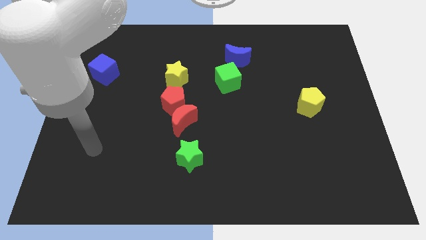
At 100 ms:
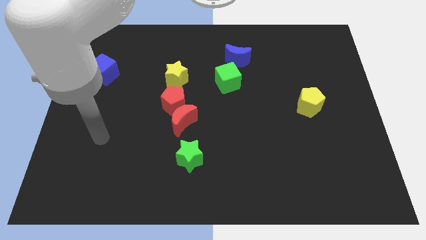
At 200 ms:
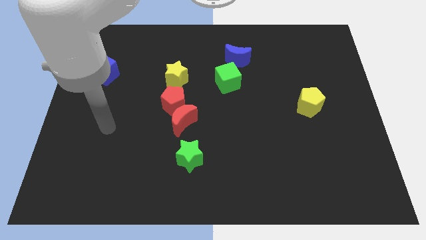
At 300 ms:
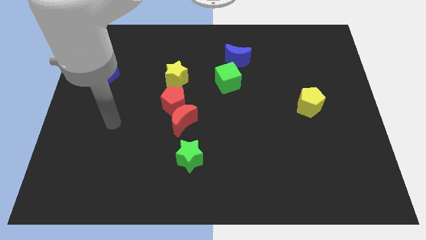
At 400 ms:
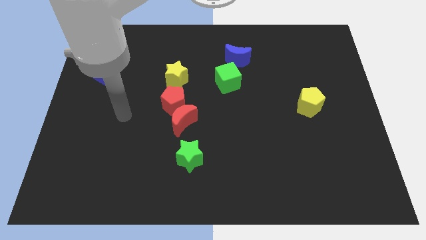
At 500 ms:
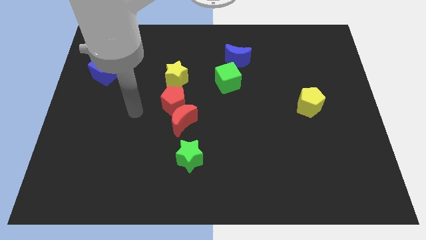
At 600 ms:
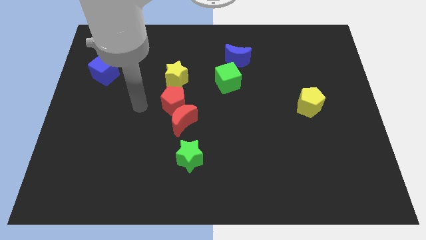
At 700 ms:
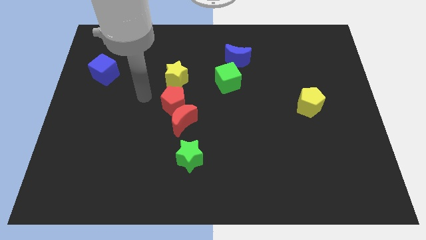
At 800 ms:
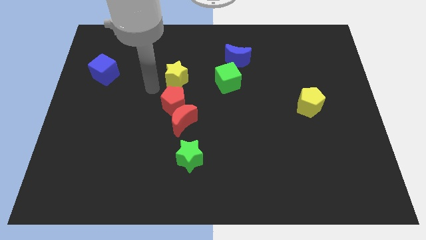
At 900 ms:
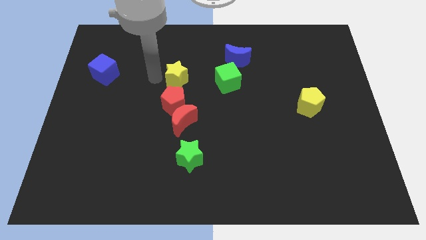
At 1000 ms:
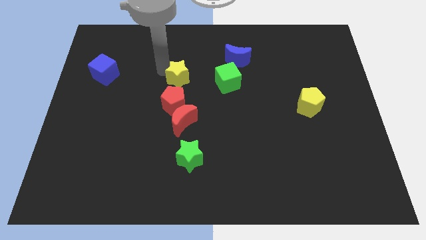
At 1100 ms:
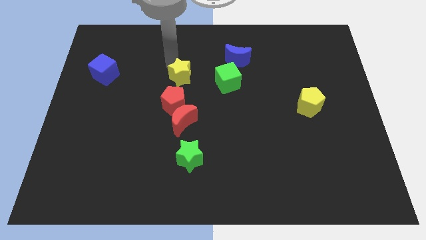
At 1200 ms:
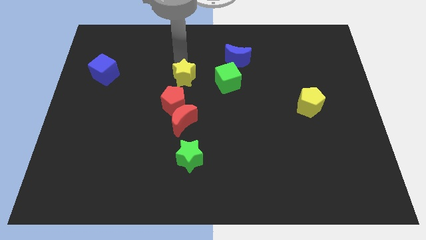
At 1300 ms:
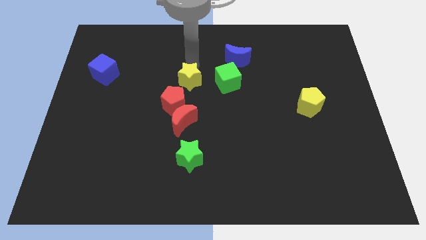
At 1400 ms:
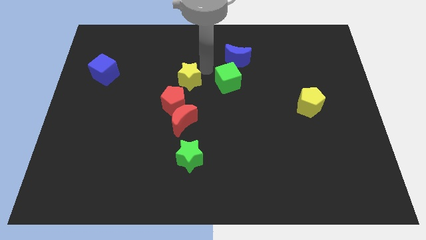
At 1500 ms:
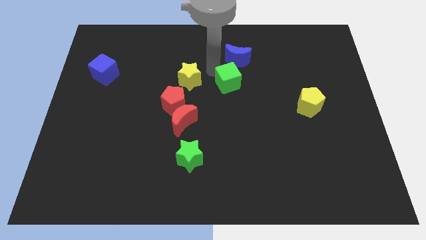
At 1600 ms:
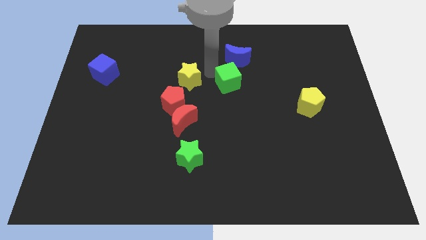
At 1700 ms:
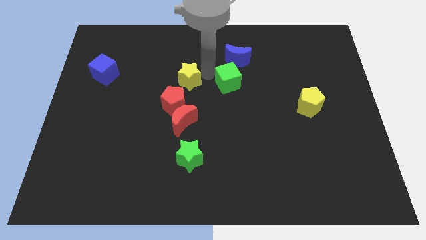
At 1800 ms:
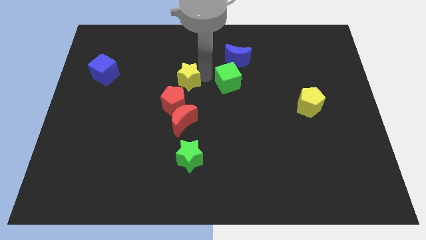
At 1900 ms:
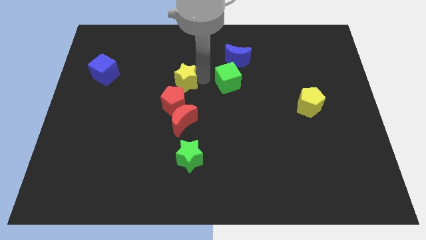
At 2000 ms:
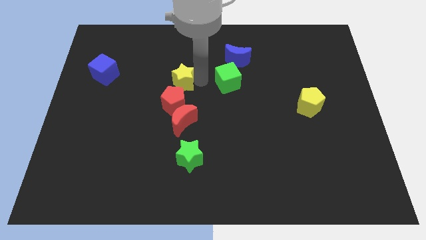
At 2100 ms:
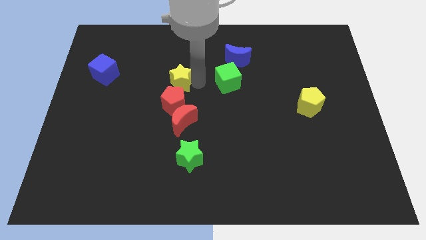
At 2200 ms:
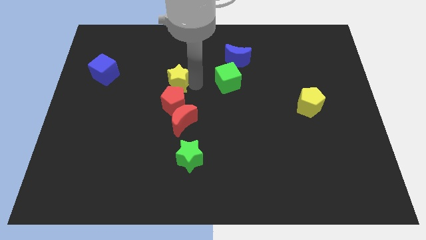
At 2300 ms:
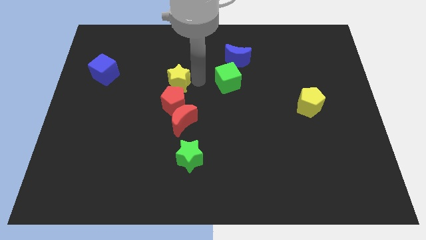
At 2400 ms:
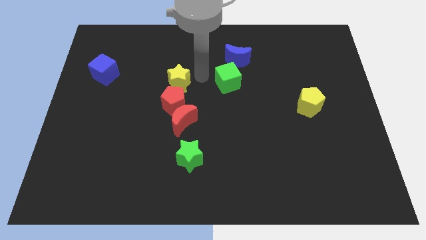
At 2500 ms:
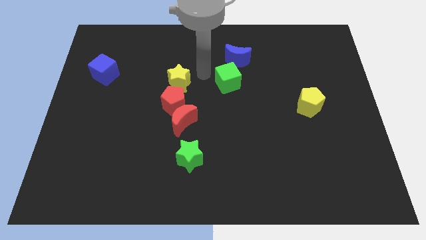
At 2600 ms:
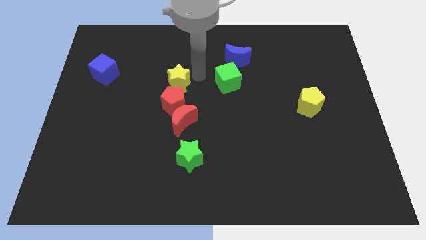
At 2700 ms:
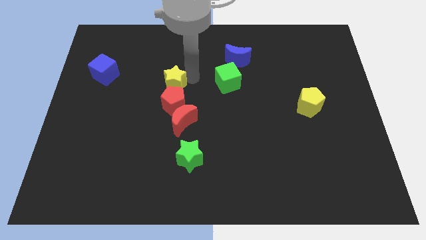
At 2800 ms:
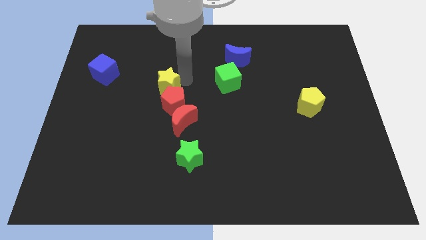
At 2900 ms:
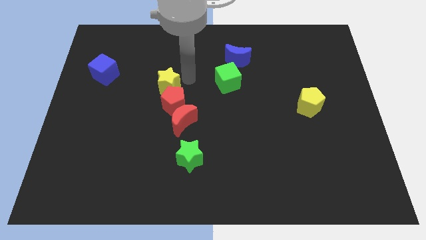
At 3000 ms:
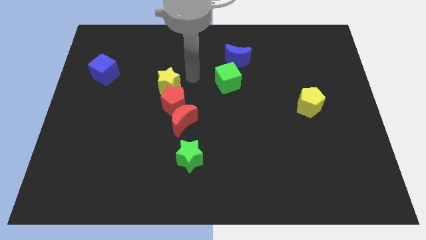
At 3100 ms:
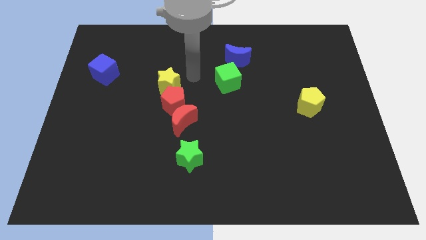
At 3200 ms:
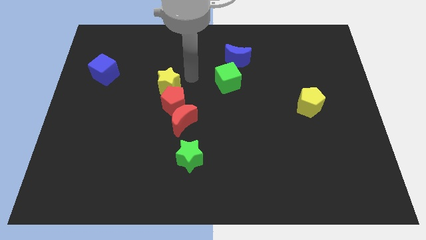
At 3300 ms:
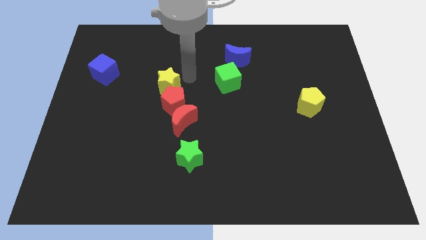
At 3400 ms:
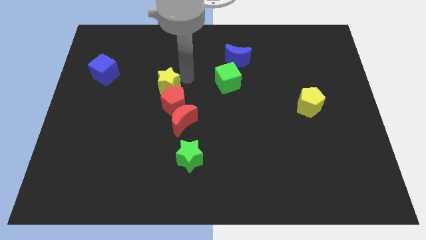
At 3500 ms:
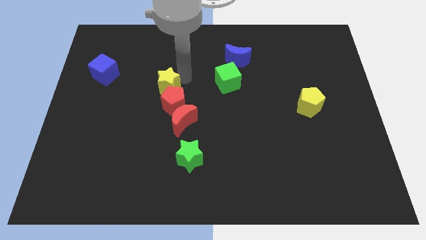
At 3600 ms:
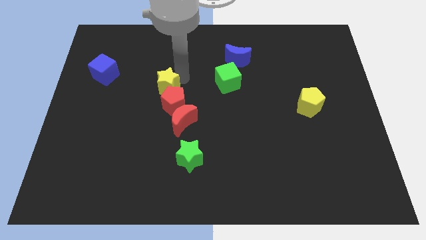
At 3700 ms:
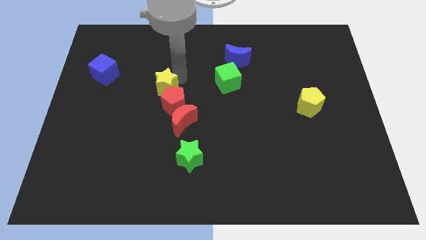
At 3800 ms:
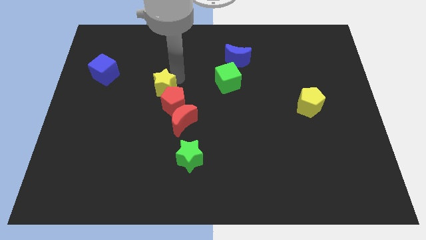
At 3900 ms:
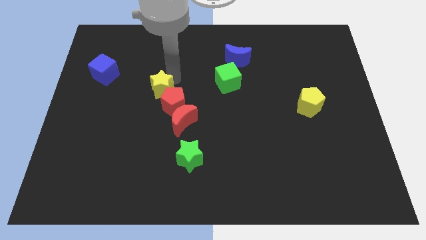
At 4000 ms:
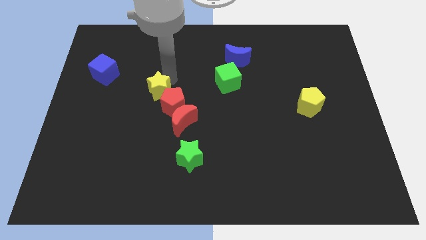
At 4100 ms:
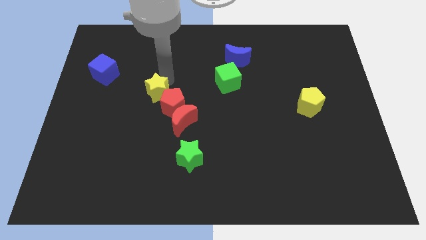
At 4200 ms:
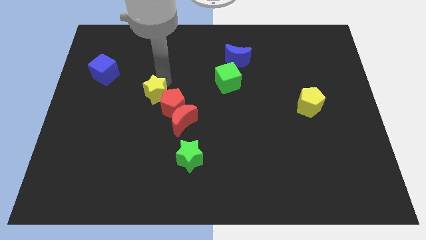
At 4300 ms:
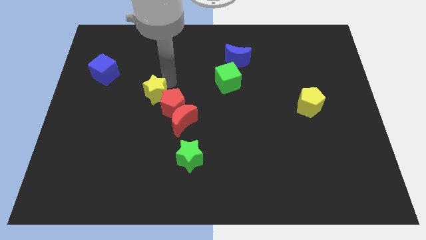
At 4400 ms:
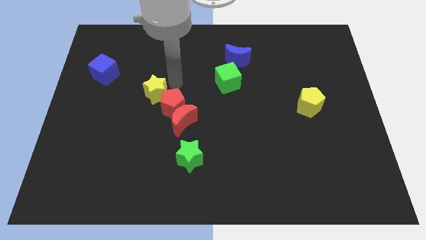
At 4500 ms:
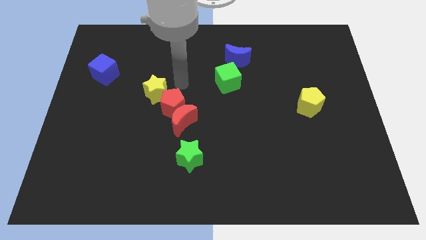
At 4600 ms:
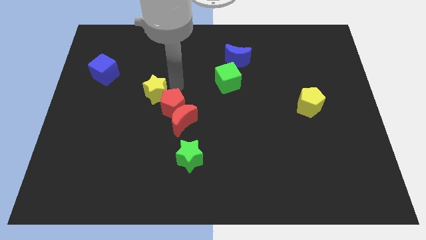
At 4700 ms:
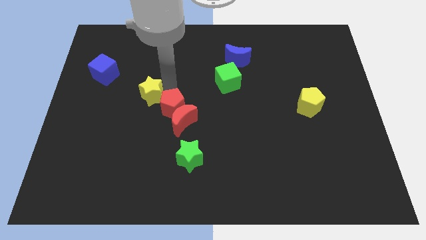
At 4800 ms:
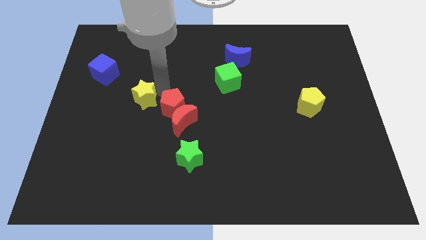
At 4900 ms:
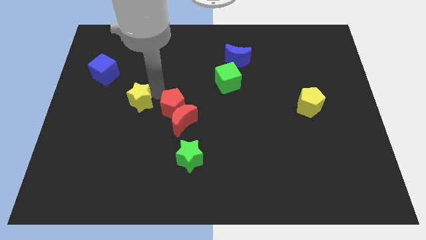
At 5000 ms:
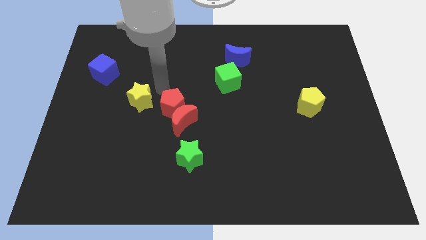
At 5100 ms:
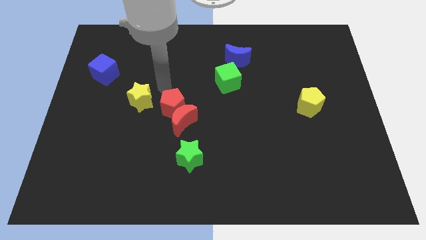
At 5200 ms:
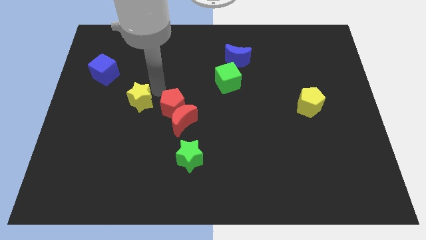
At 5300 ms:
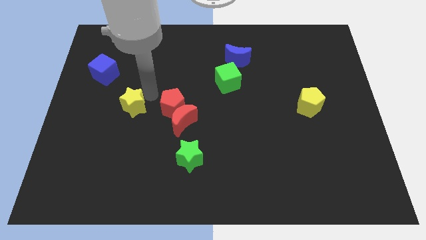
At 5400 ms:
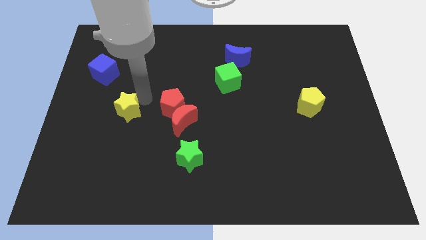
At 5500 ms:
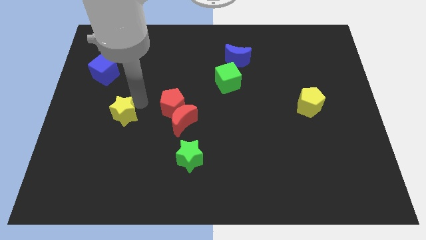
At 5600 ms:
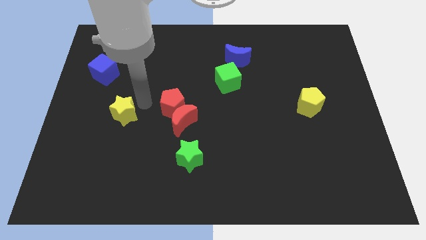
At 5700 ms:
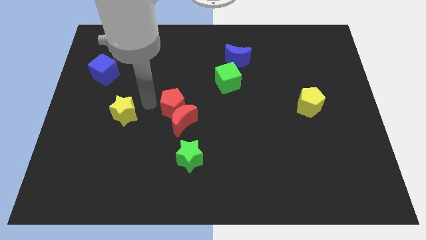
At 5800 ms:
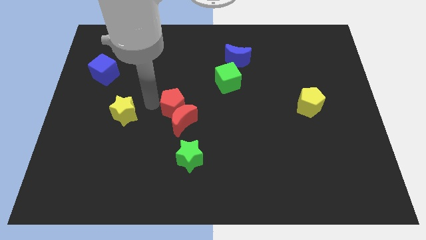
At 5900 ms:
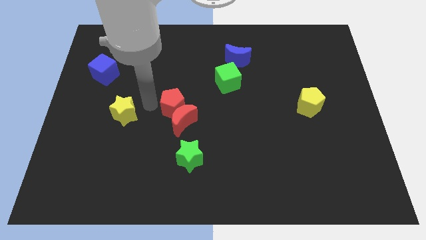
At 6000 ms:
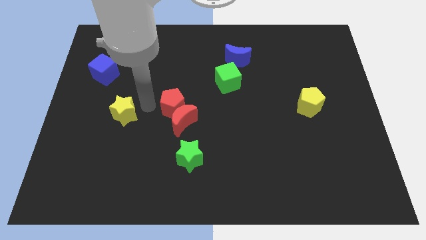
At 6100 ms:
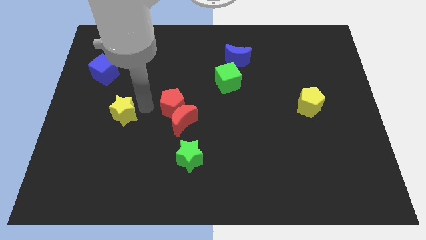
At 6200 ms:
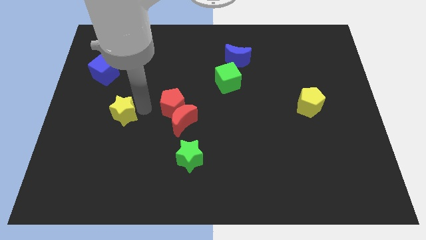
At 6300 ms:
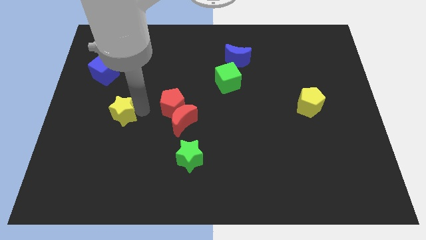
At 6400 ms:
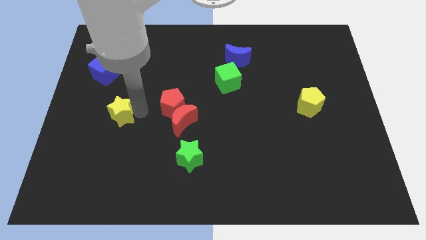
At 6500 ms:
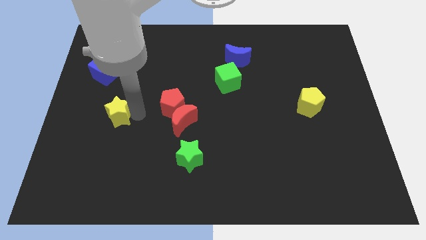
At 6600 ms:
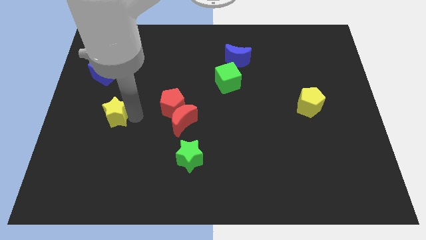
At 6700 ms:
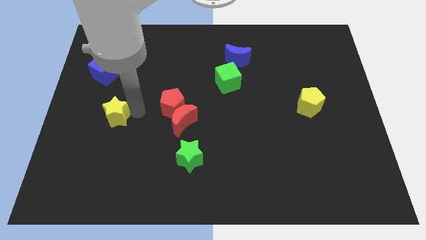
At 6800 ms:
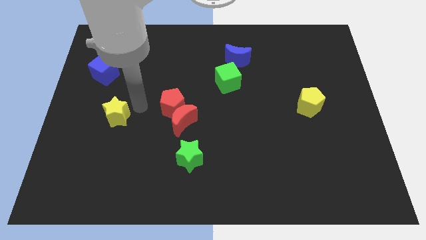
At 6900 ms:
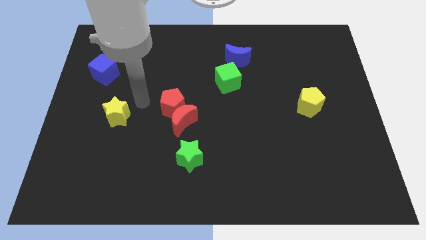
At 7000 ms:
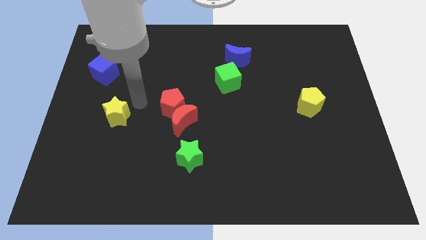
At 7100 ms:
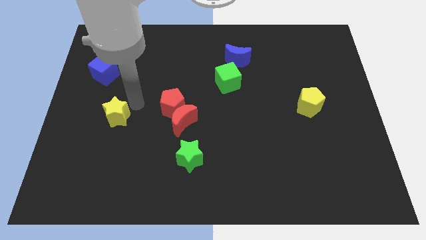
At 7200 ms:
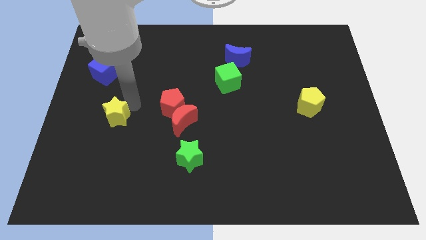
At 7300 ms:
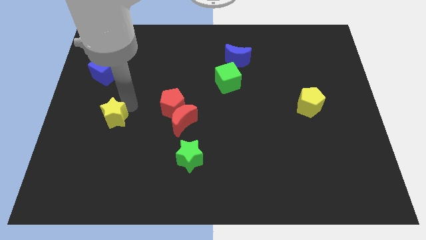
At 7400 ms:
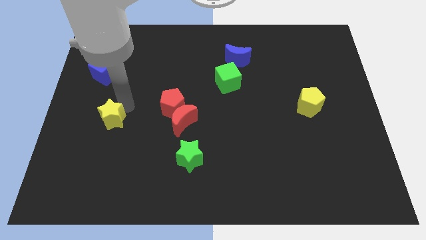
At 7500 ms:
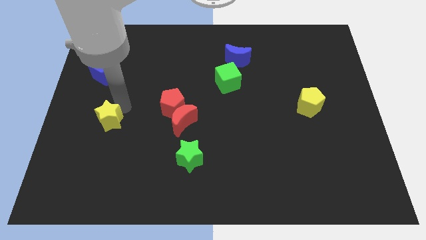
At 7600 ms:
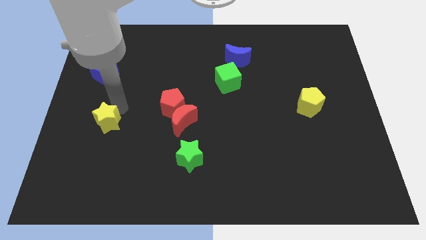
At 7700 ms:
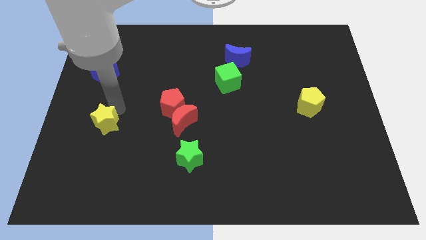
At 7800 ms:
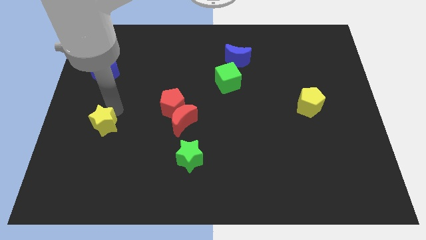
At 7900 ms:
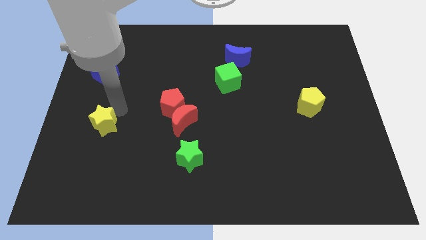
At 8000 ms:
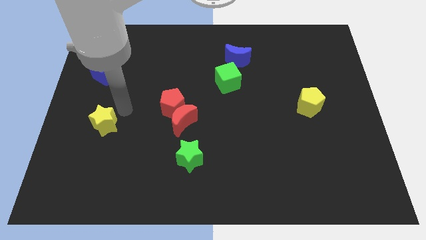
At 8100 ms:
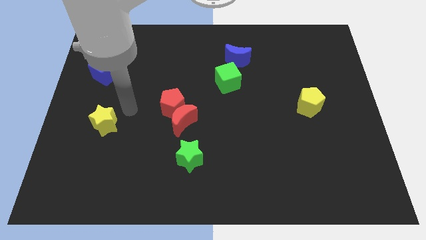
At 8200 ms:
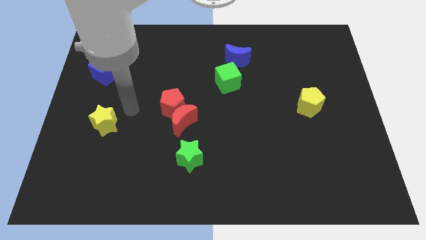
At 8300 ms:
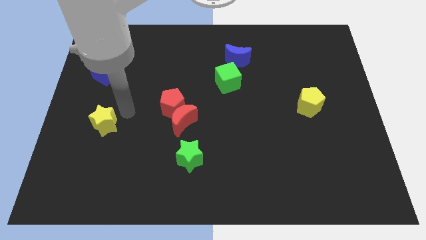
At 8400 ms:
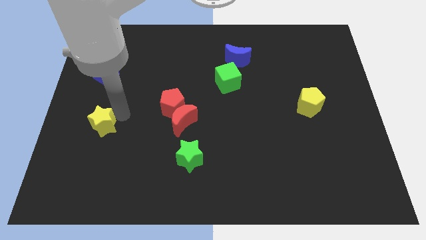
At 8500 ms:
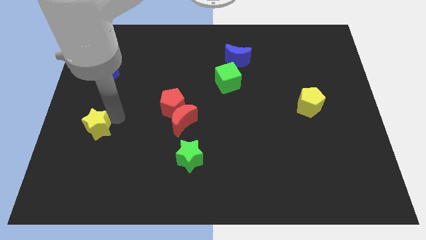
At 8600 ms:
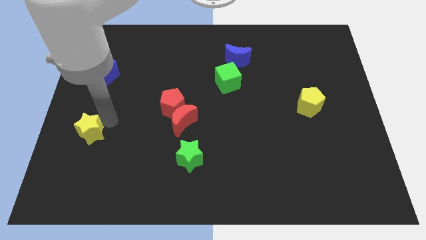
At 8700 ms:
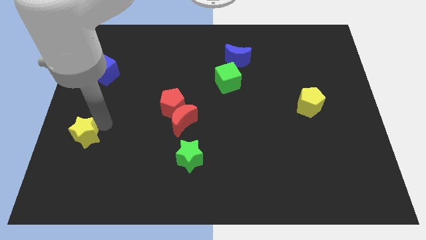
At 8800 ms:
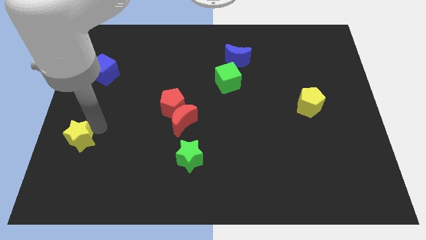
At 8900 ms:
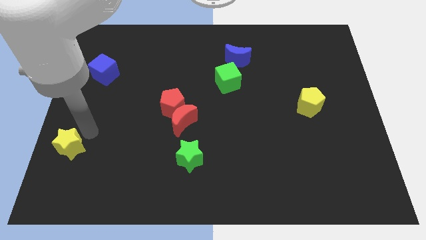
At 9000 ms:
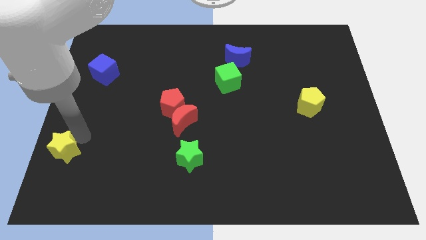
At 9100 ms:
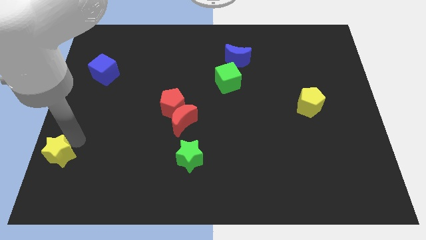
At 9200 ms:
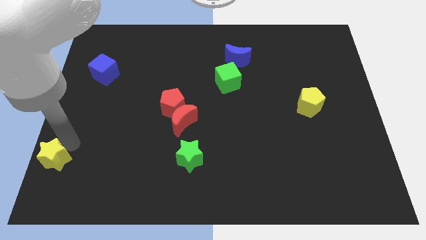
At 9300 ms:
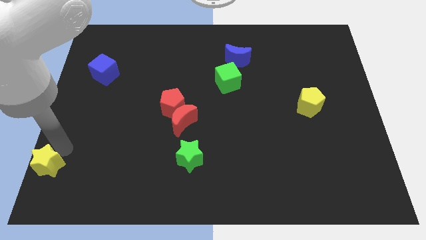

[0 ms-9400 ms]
put the yellow star to the bottom left corner
